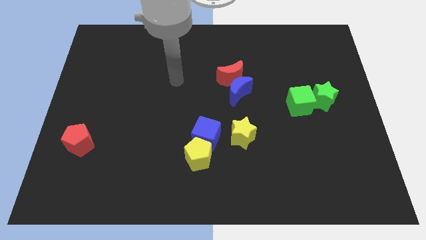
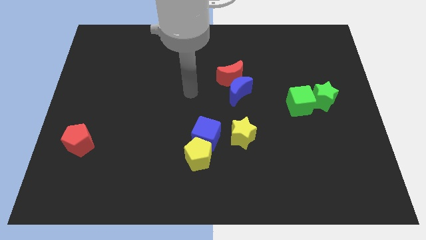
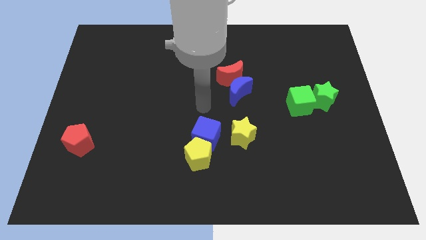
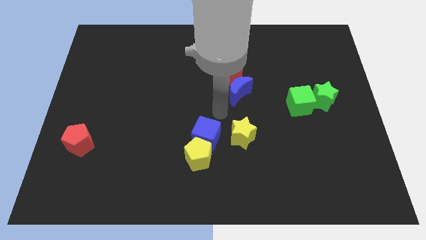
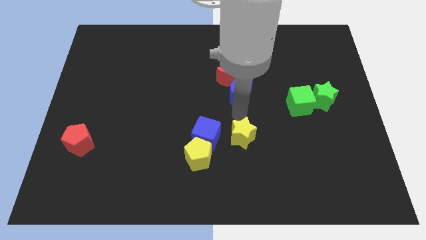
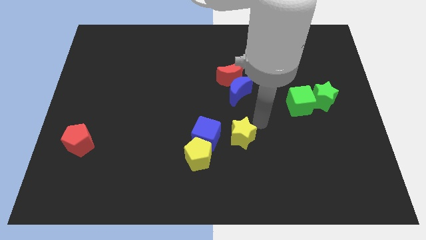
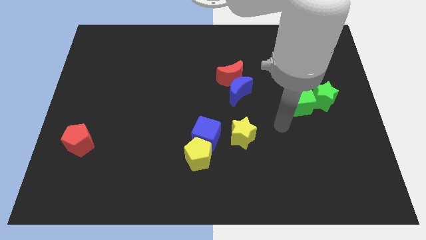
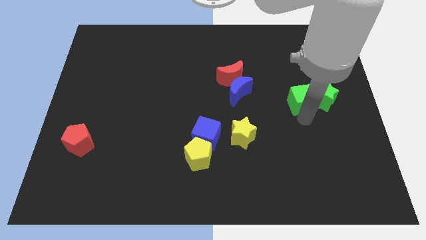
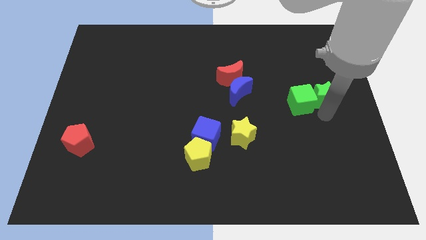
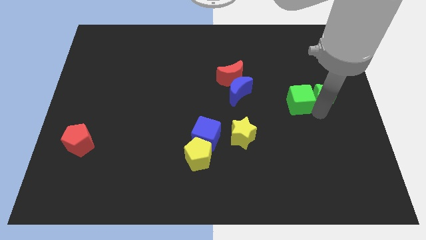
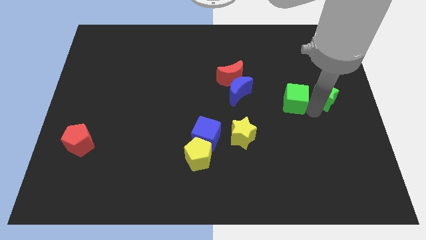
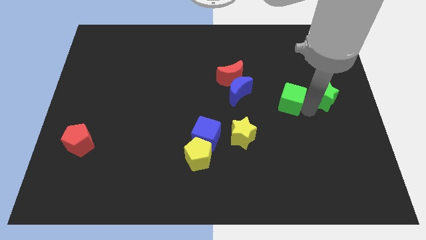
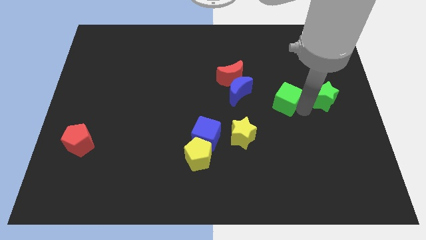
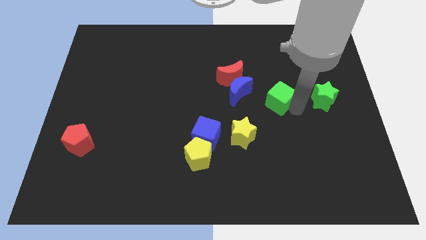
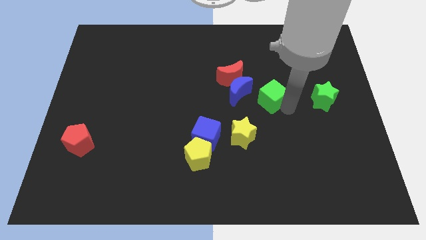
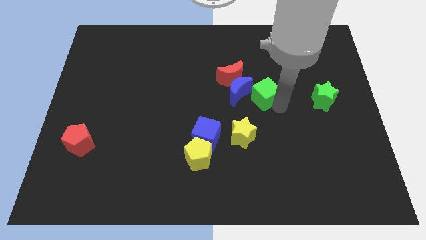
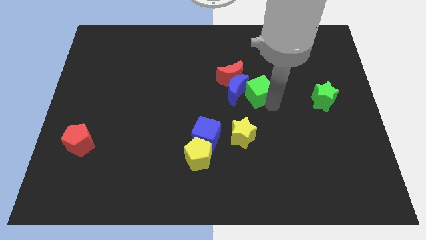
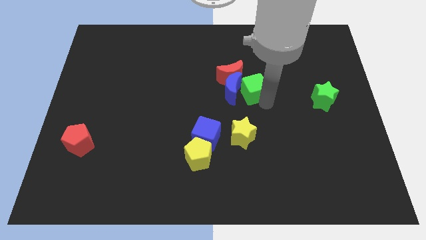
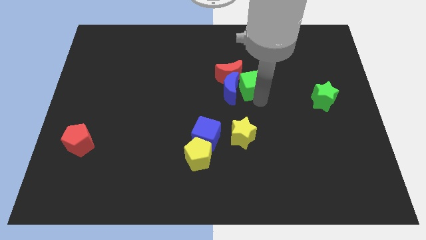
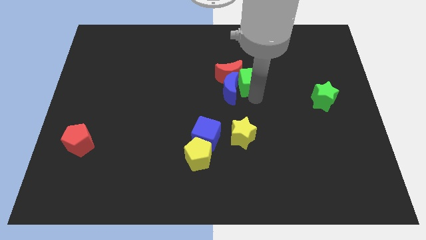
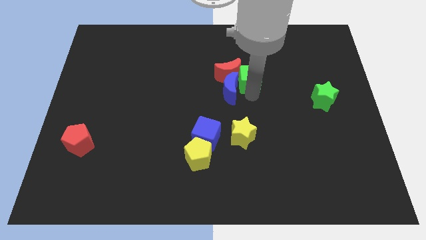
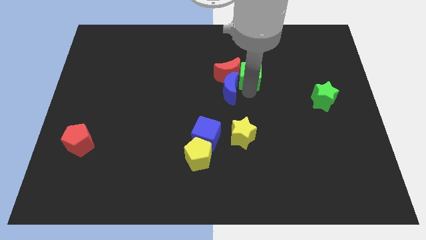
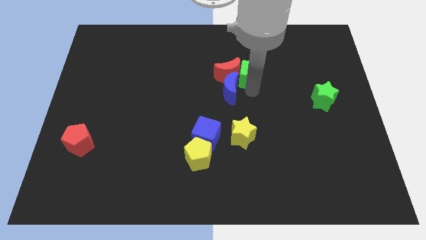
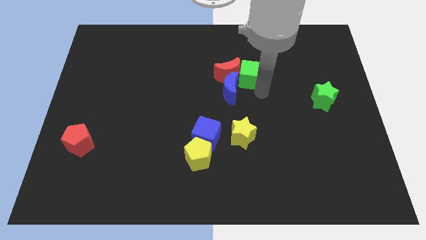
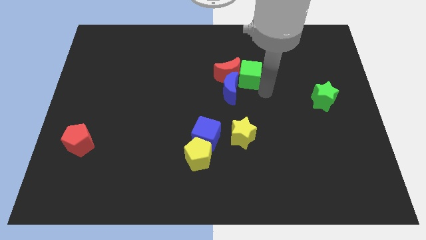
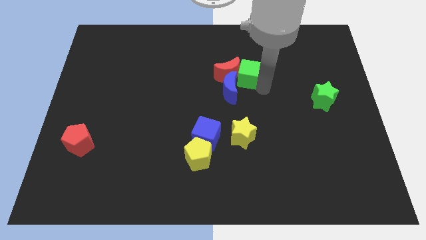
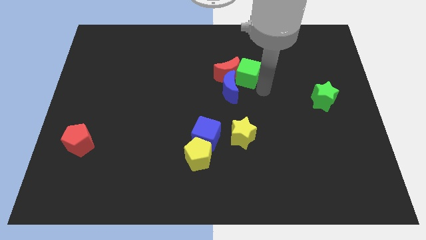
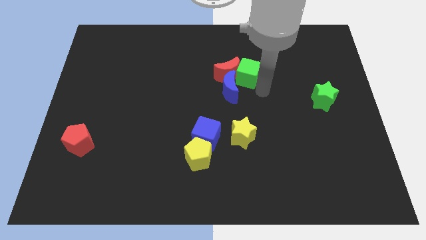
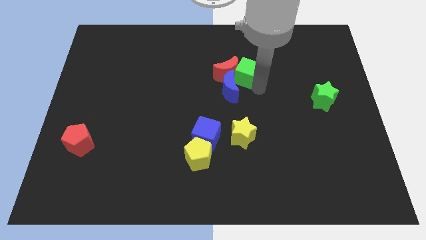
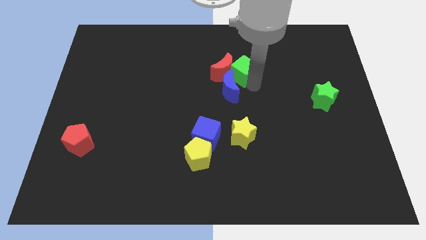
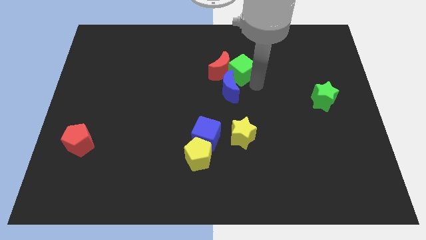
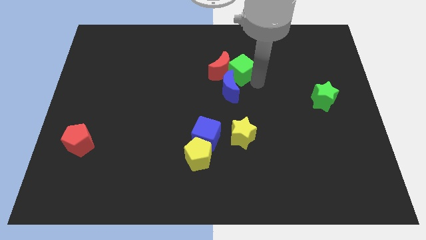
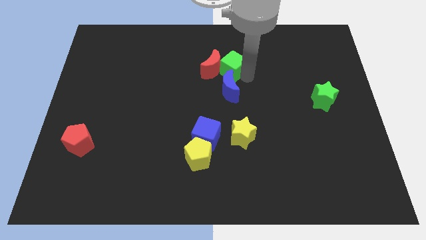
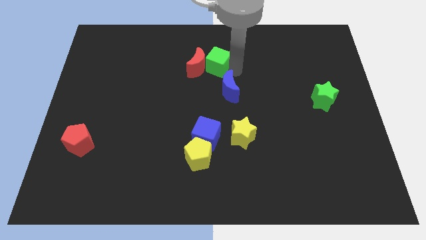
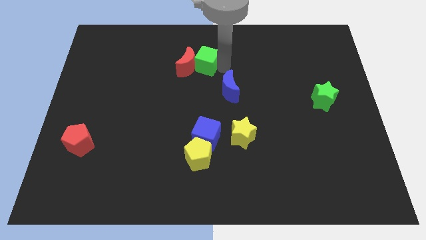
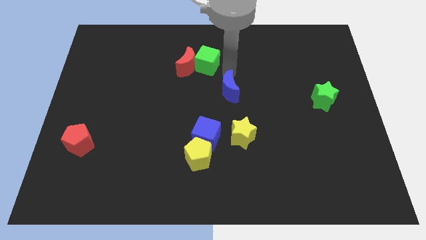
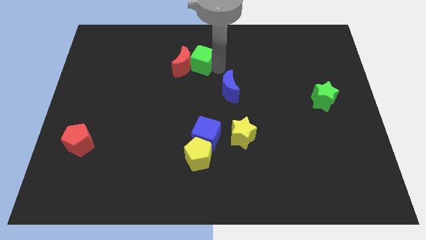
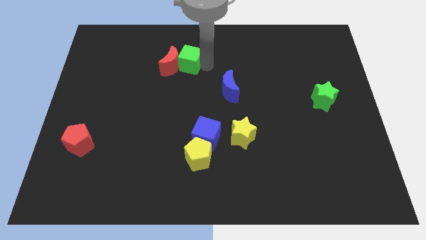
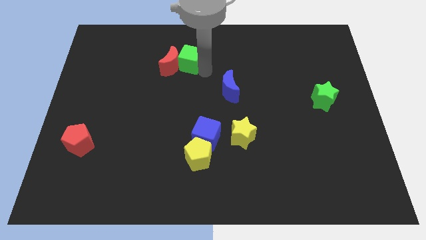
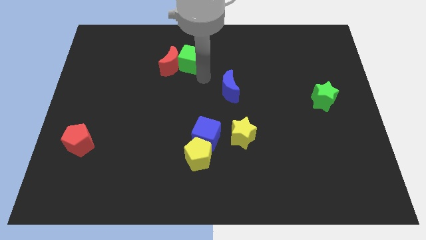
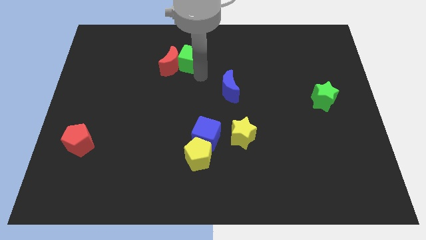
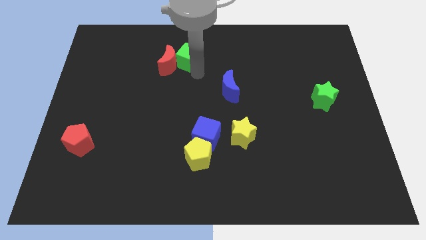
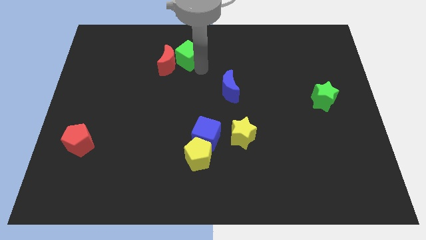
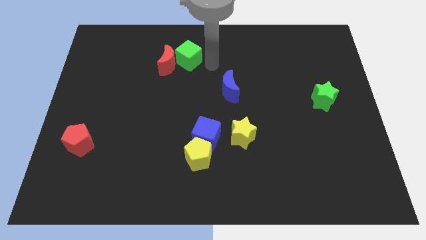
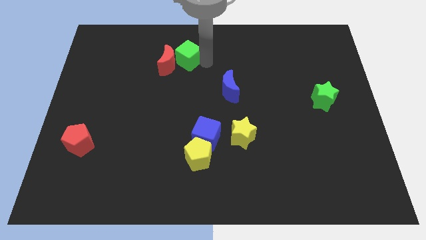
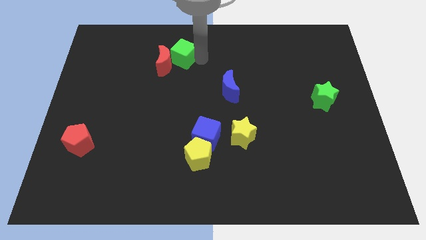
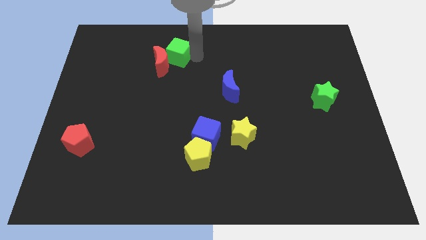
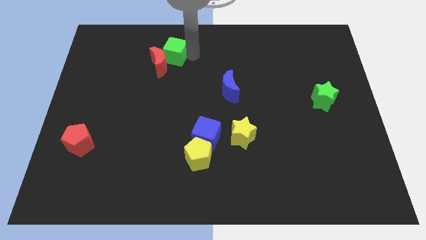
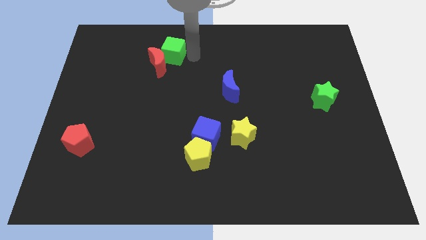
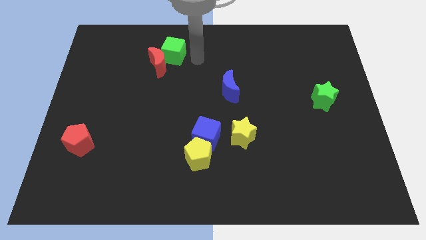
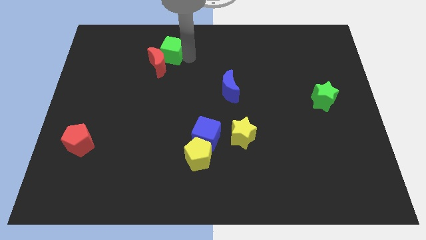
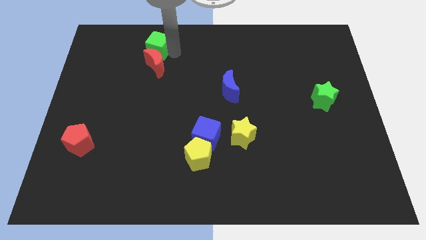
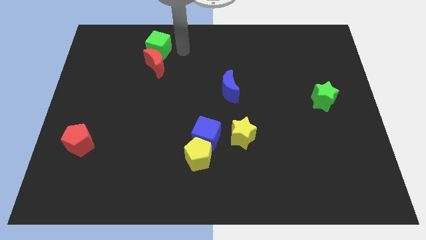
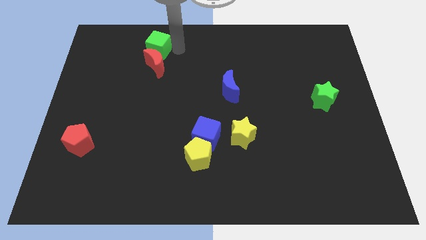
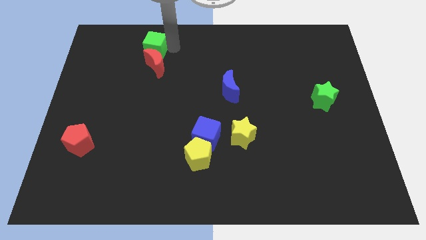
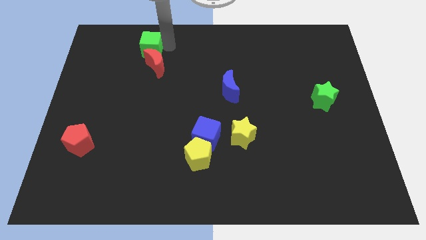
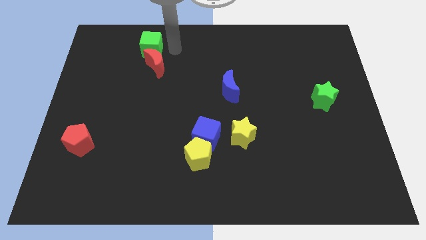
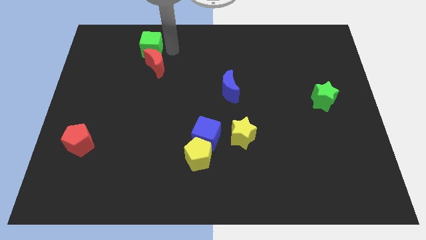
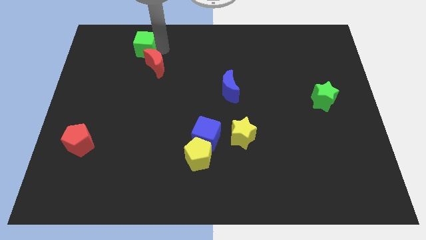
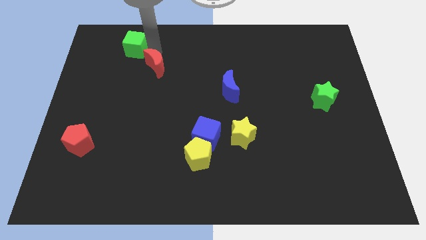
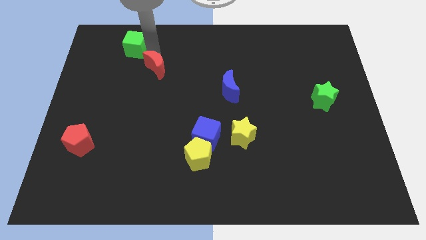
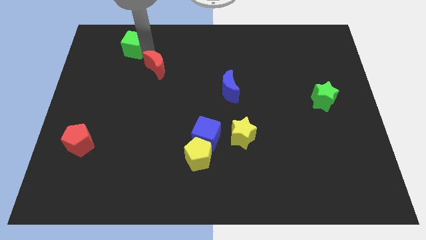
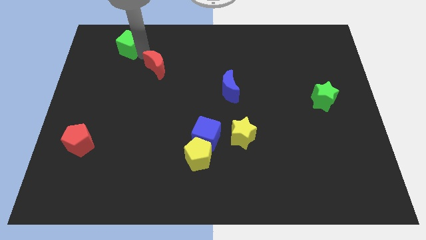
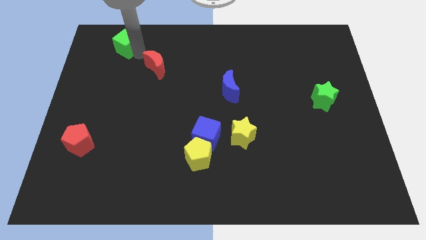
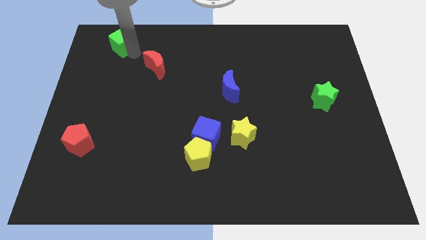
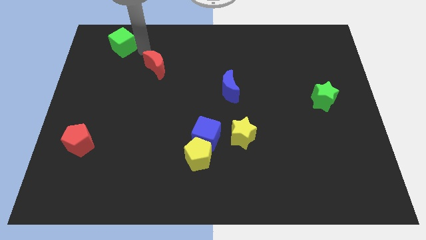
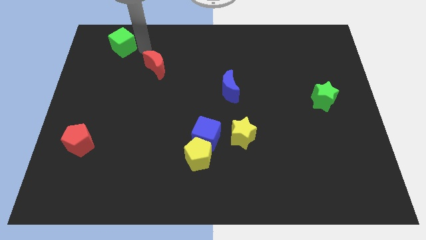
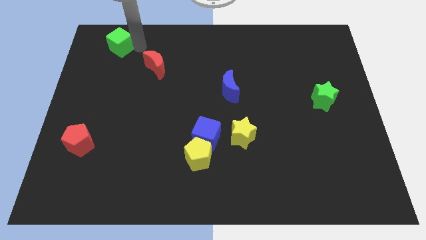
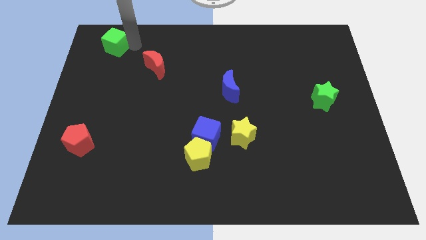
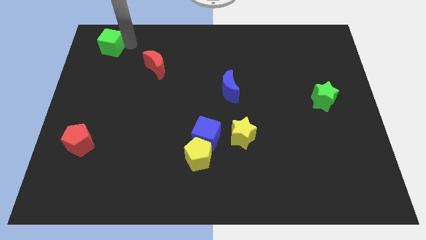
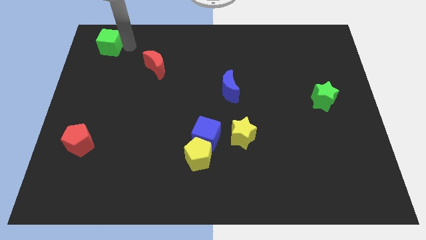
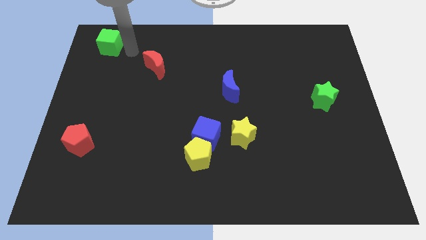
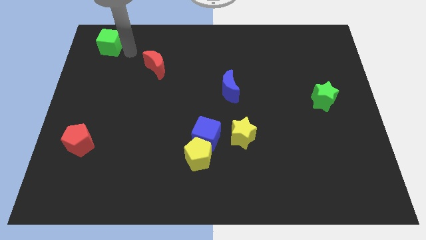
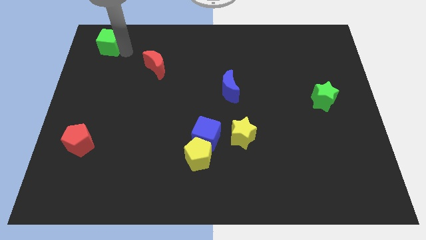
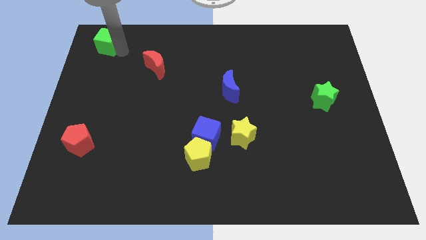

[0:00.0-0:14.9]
move the green cube to the upper left corner
